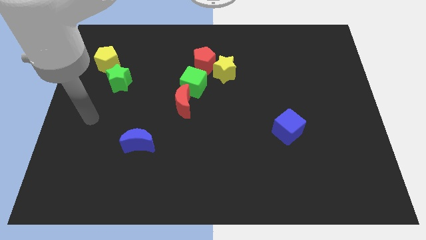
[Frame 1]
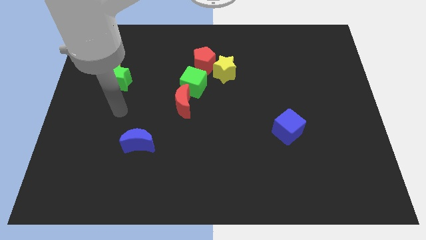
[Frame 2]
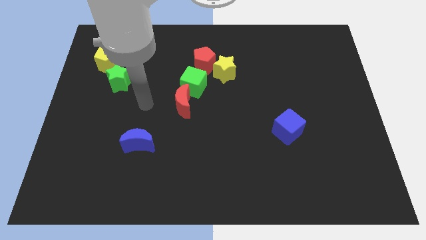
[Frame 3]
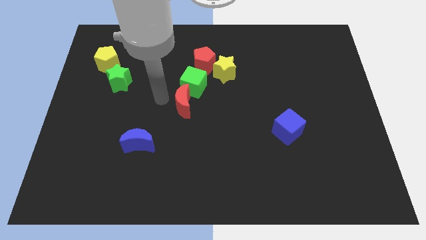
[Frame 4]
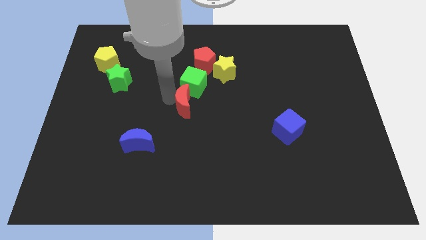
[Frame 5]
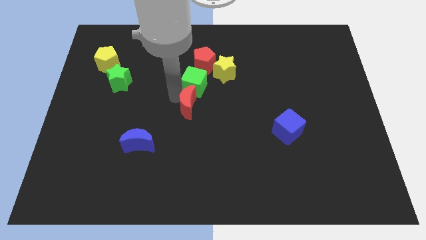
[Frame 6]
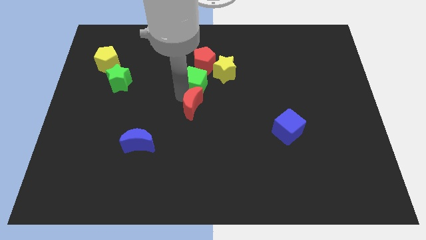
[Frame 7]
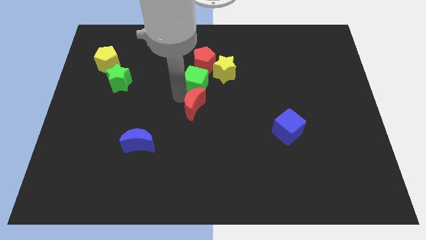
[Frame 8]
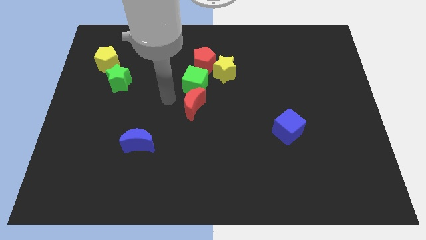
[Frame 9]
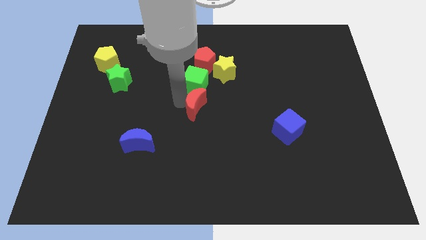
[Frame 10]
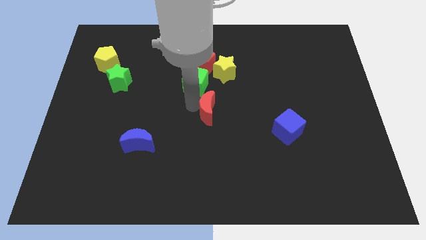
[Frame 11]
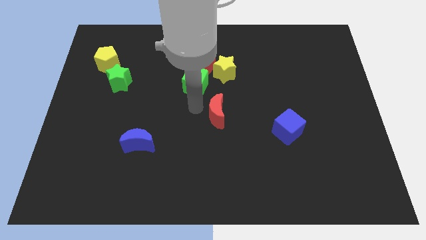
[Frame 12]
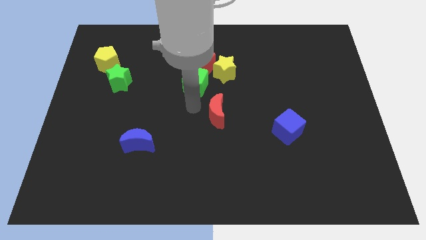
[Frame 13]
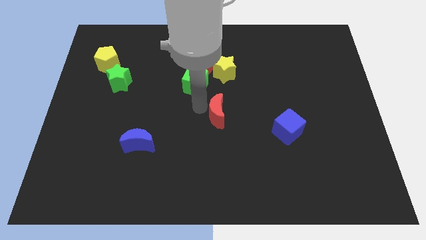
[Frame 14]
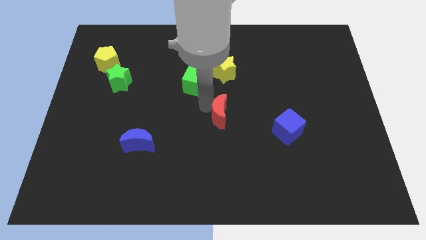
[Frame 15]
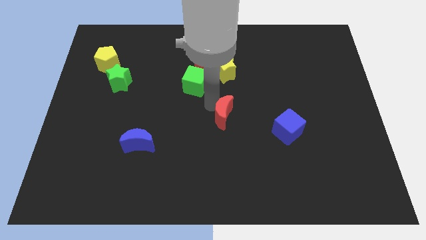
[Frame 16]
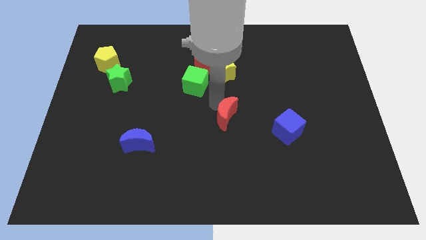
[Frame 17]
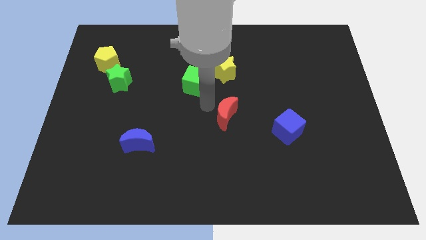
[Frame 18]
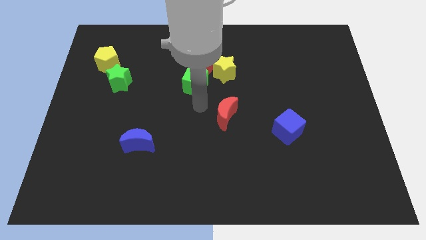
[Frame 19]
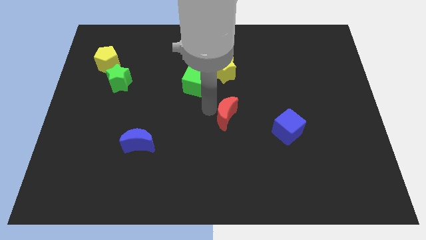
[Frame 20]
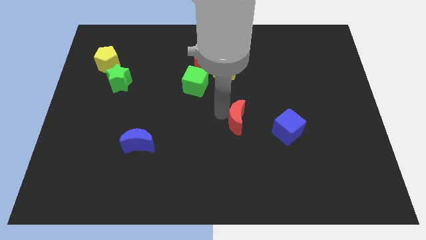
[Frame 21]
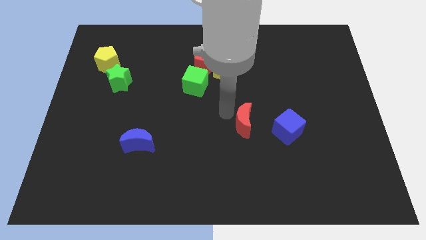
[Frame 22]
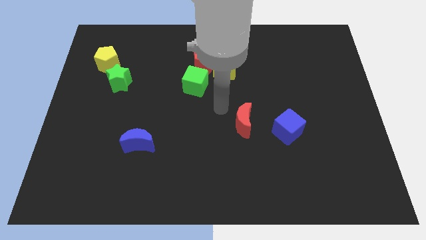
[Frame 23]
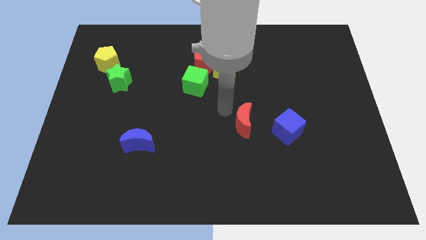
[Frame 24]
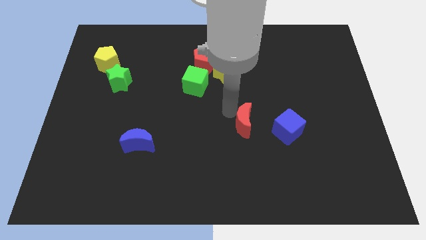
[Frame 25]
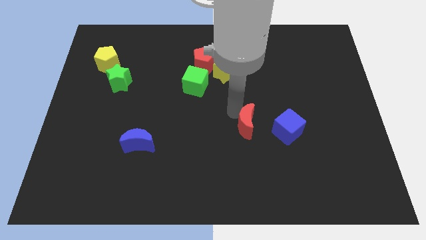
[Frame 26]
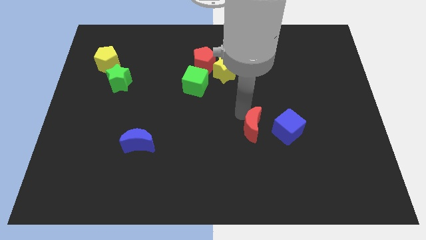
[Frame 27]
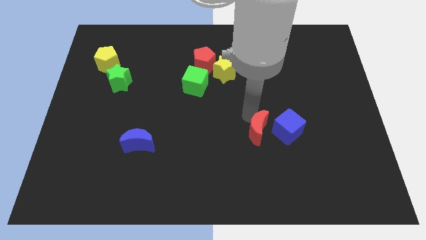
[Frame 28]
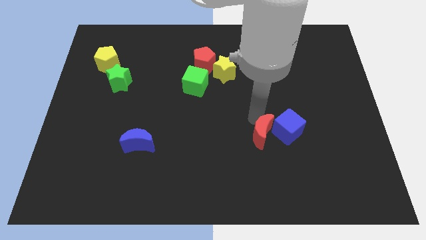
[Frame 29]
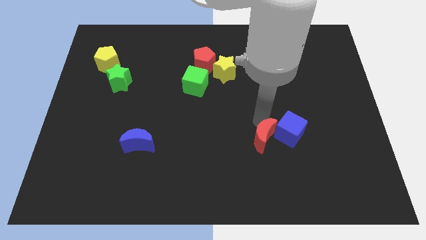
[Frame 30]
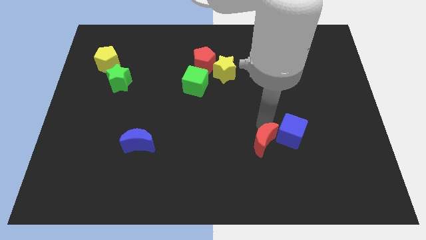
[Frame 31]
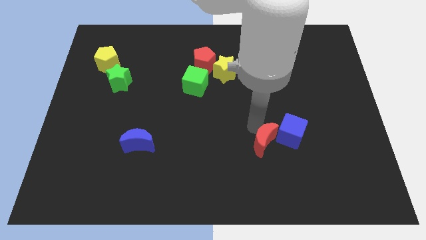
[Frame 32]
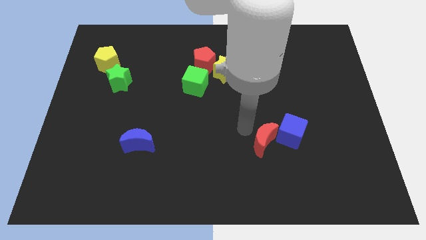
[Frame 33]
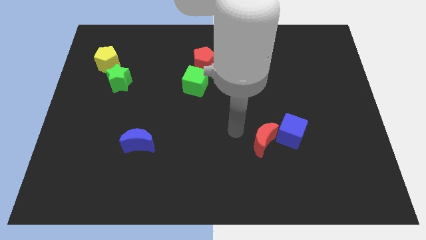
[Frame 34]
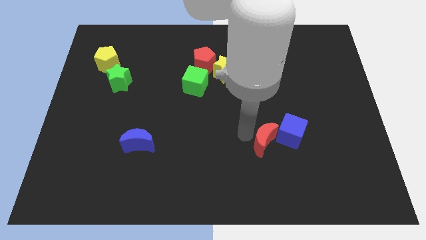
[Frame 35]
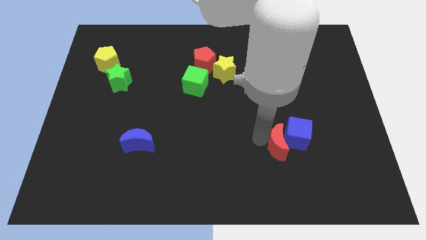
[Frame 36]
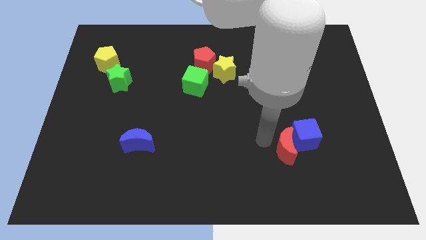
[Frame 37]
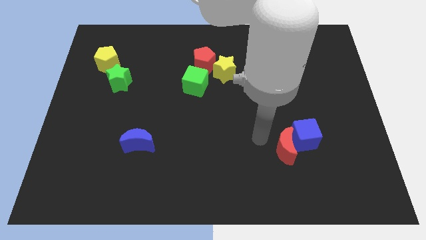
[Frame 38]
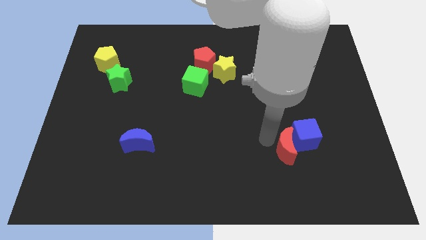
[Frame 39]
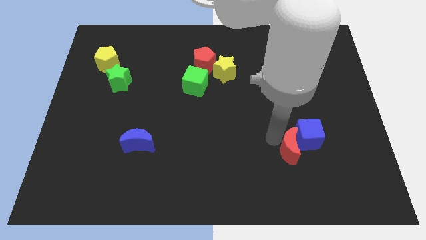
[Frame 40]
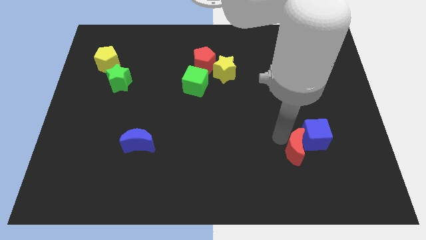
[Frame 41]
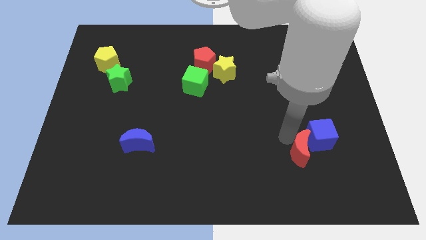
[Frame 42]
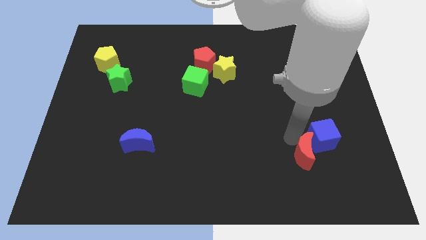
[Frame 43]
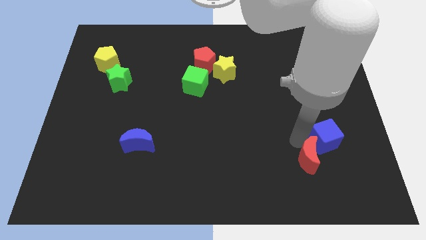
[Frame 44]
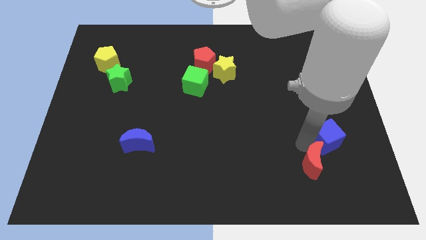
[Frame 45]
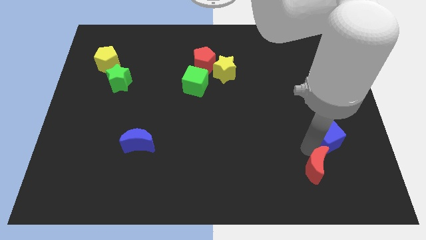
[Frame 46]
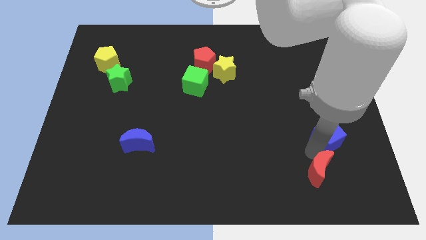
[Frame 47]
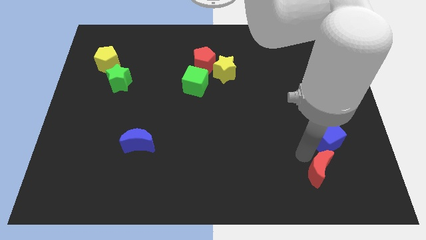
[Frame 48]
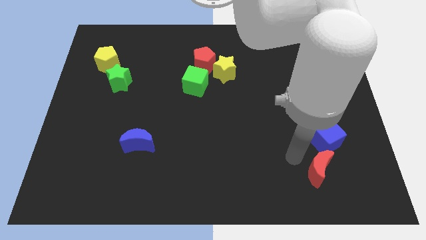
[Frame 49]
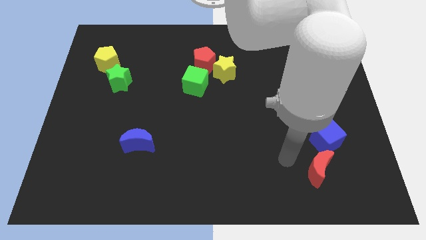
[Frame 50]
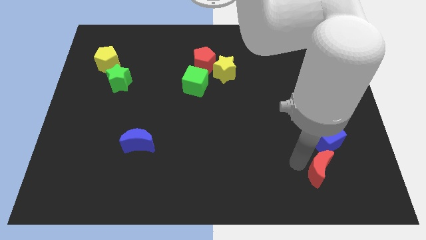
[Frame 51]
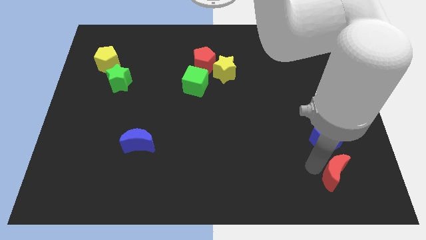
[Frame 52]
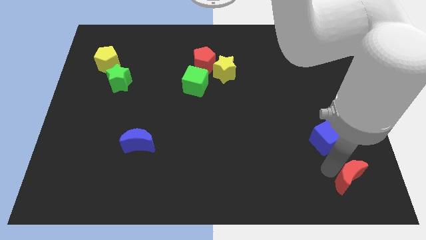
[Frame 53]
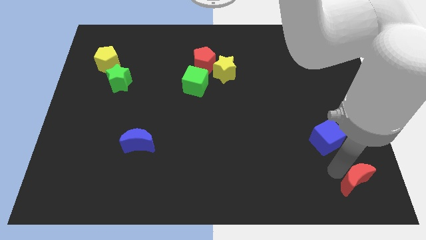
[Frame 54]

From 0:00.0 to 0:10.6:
put the red moon to the bottom right corner

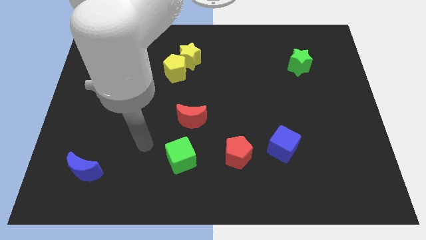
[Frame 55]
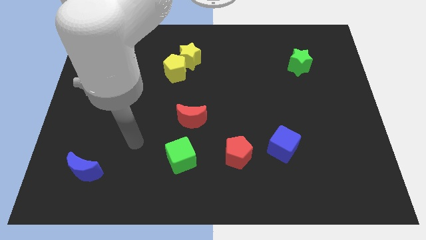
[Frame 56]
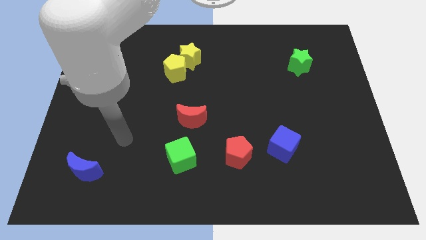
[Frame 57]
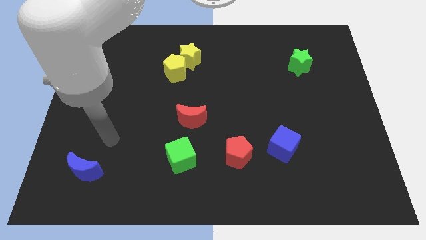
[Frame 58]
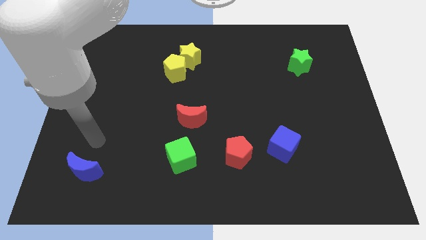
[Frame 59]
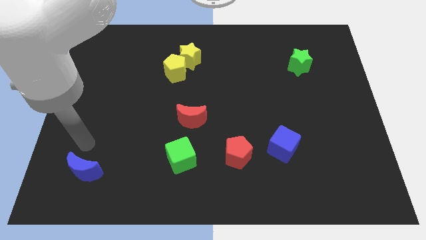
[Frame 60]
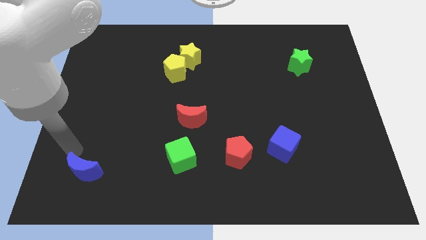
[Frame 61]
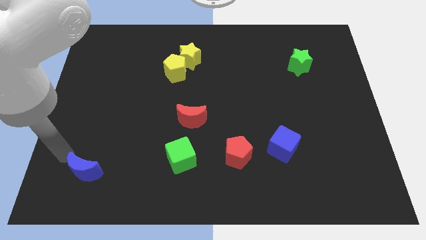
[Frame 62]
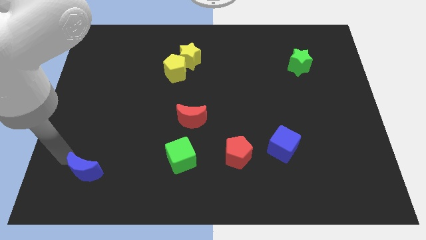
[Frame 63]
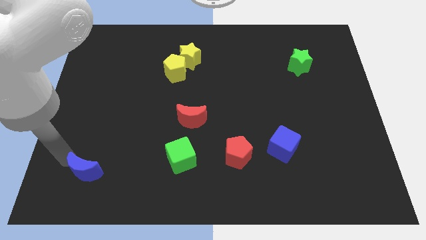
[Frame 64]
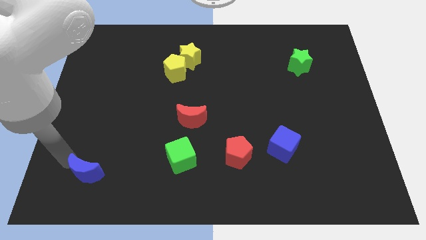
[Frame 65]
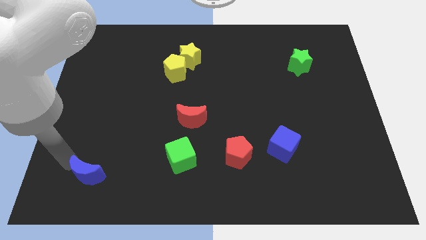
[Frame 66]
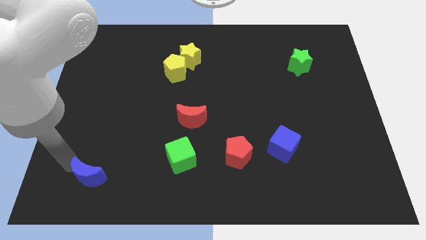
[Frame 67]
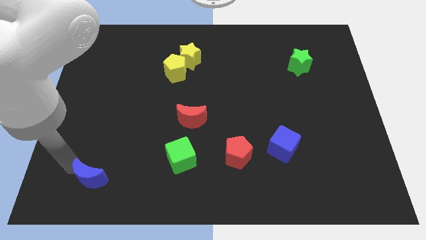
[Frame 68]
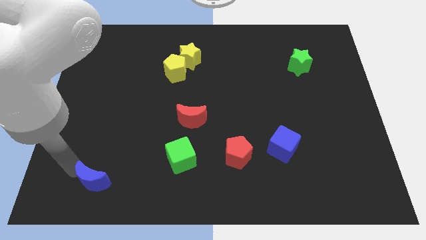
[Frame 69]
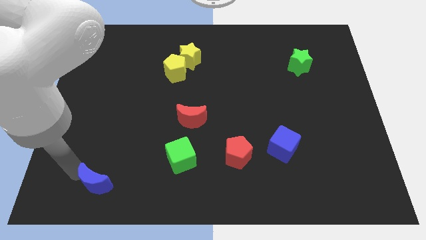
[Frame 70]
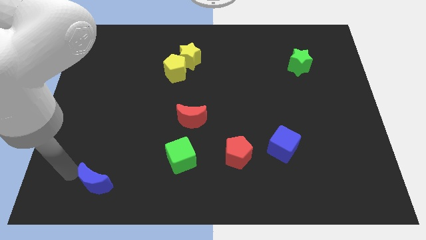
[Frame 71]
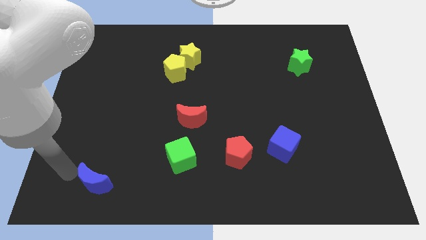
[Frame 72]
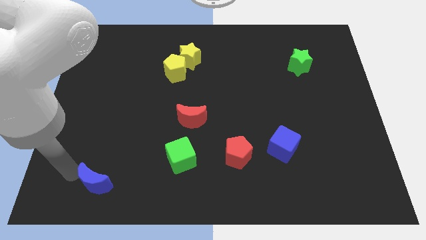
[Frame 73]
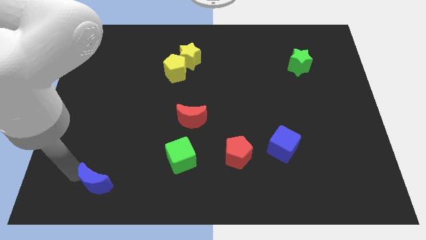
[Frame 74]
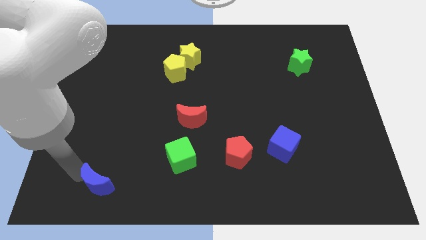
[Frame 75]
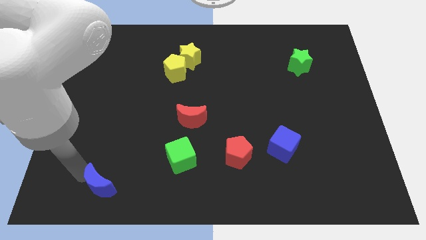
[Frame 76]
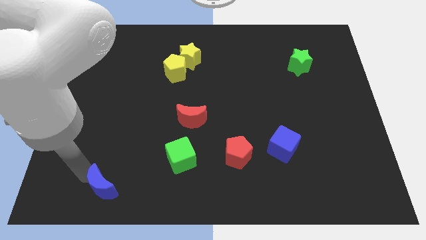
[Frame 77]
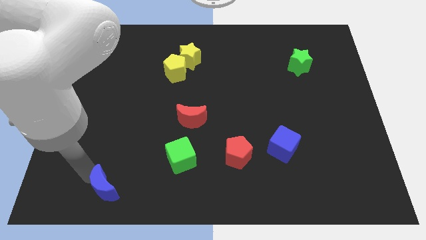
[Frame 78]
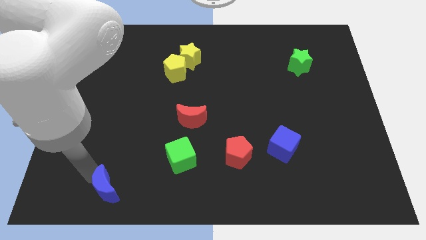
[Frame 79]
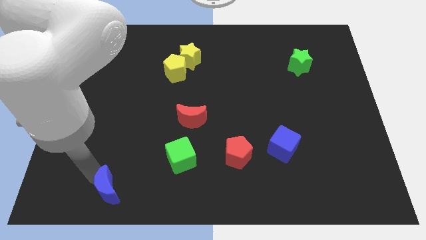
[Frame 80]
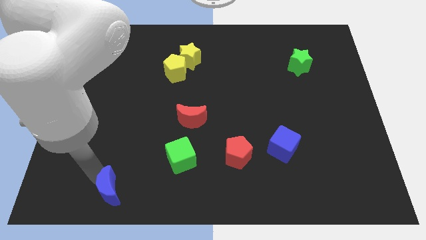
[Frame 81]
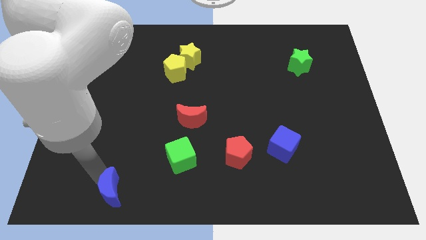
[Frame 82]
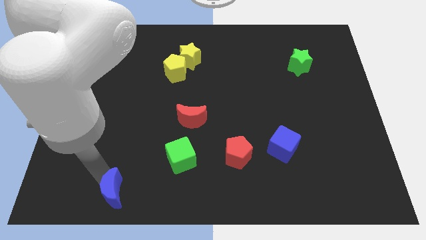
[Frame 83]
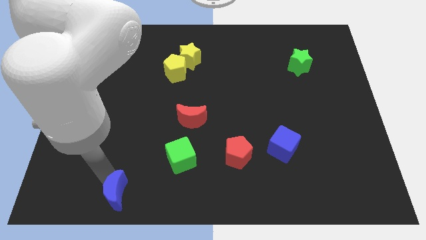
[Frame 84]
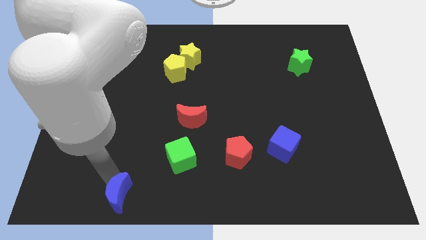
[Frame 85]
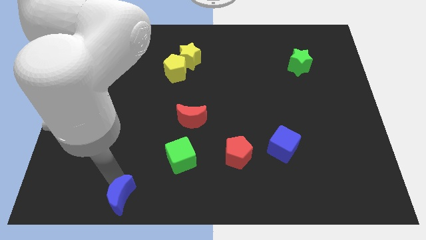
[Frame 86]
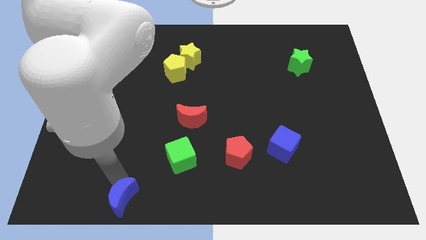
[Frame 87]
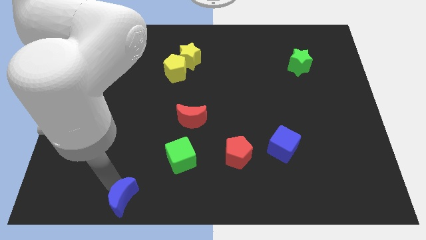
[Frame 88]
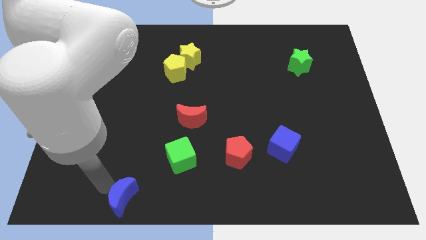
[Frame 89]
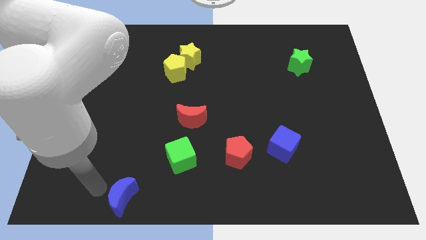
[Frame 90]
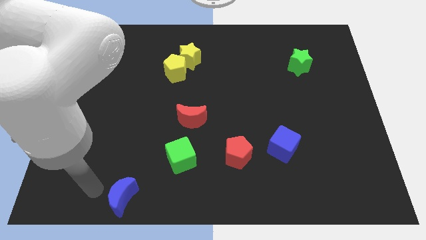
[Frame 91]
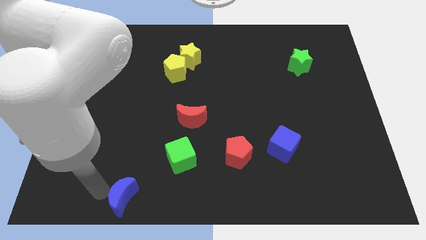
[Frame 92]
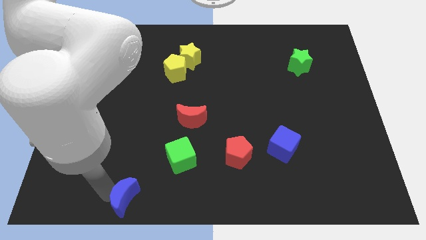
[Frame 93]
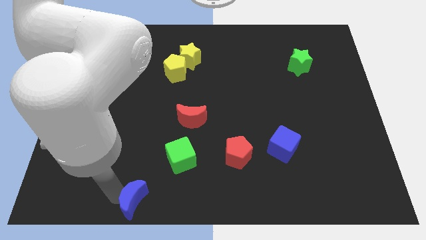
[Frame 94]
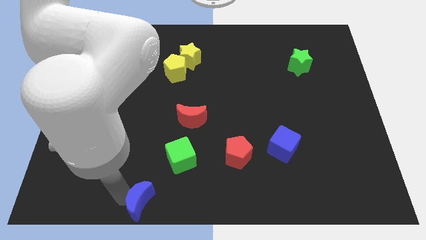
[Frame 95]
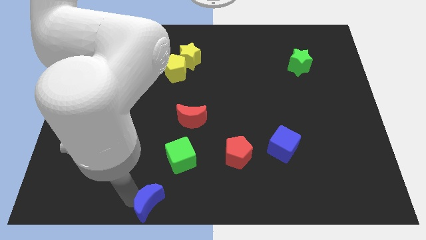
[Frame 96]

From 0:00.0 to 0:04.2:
move the blue moon to the bottom side
